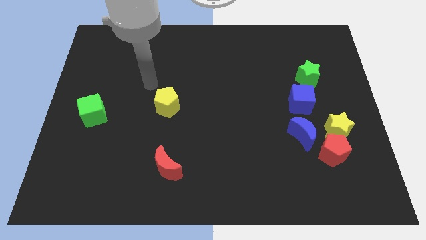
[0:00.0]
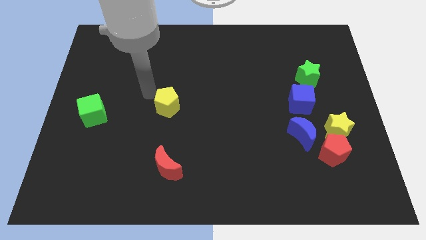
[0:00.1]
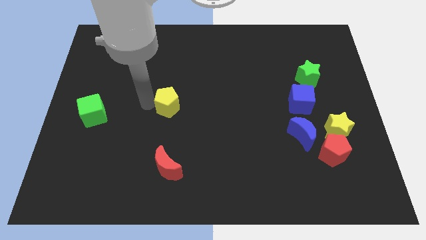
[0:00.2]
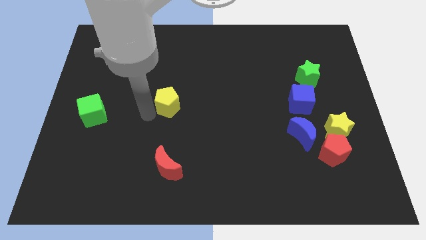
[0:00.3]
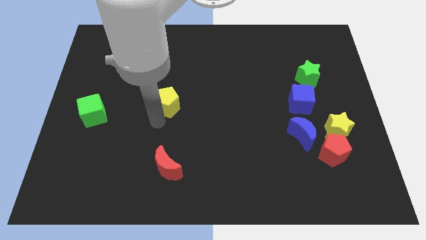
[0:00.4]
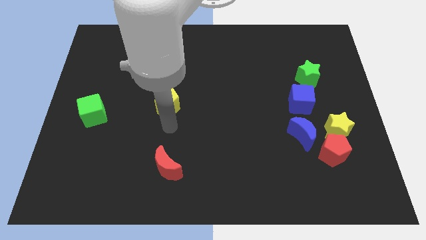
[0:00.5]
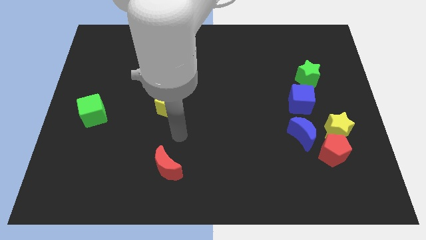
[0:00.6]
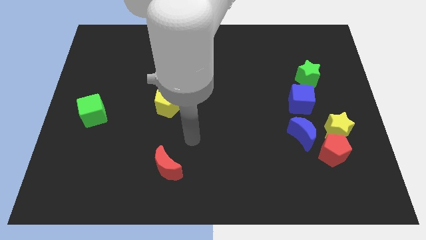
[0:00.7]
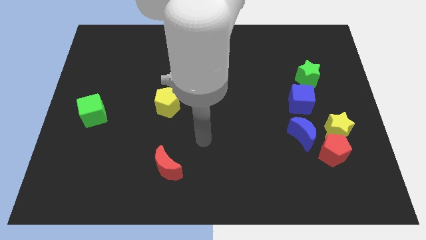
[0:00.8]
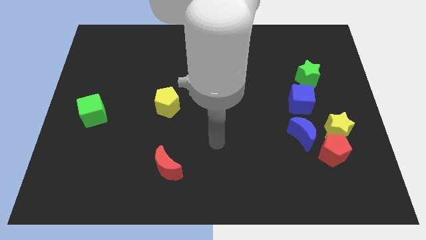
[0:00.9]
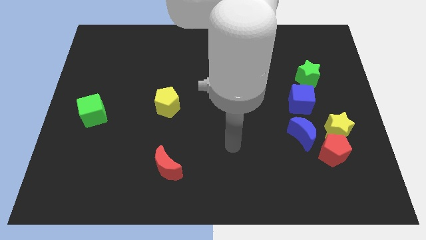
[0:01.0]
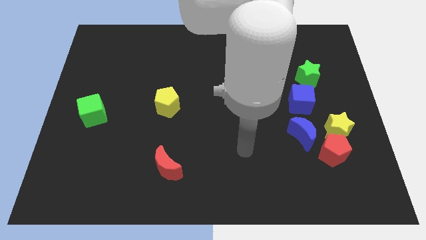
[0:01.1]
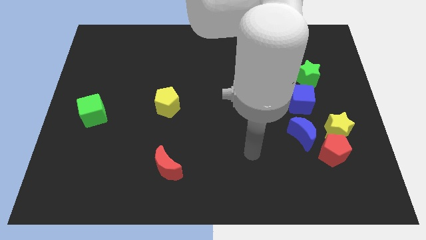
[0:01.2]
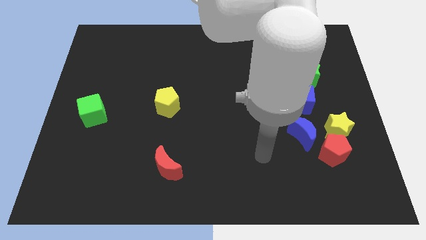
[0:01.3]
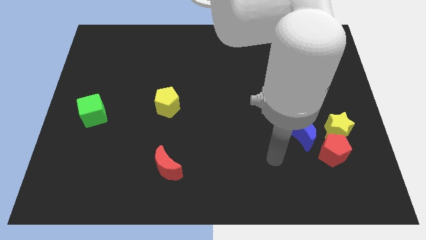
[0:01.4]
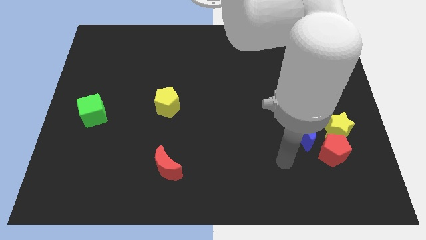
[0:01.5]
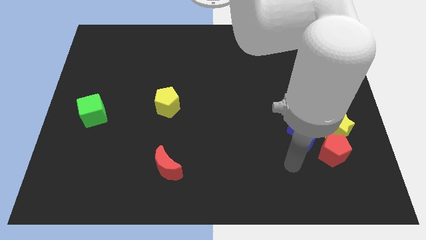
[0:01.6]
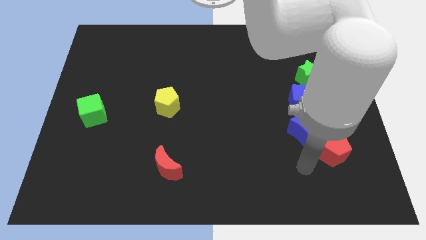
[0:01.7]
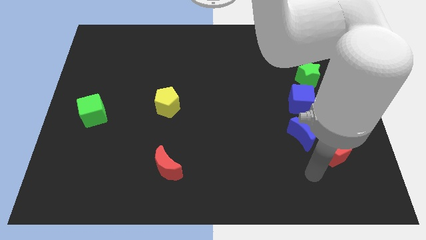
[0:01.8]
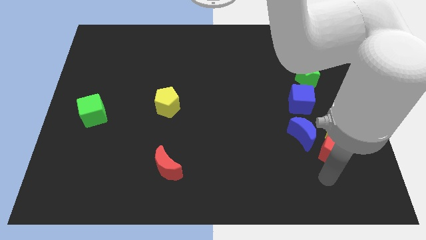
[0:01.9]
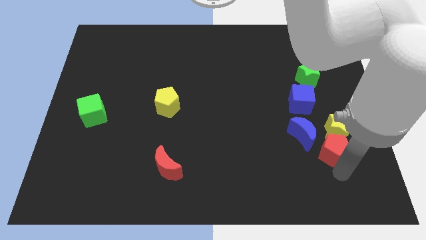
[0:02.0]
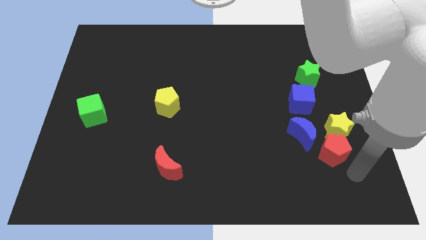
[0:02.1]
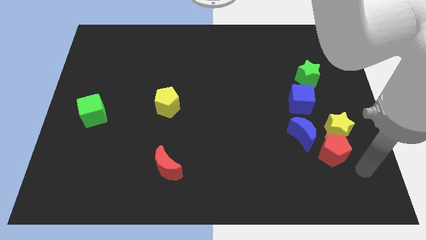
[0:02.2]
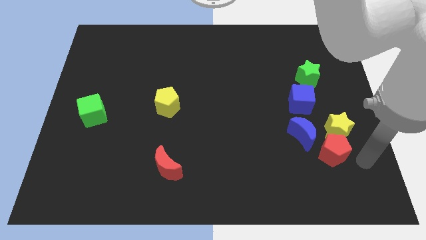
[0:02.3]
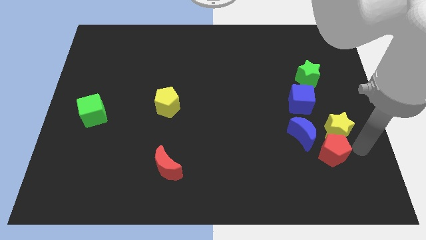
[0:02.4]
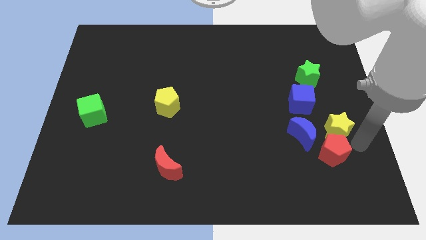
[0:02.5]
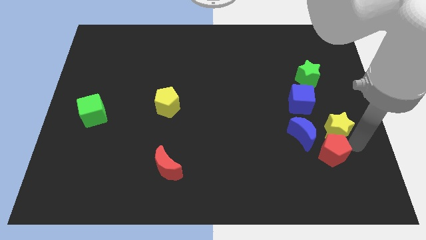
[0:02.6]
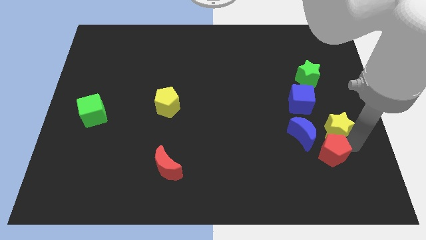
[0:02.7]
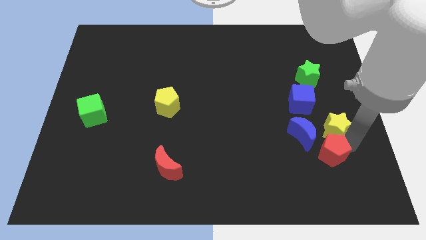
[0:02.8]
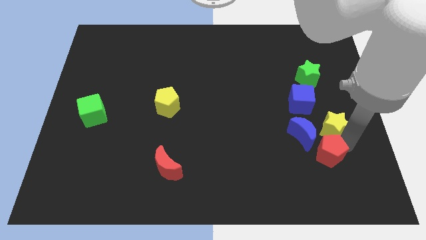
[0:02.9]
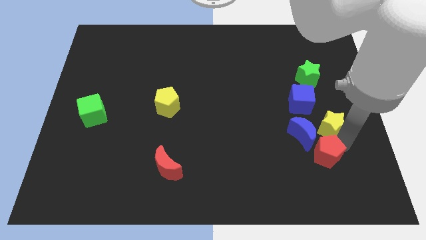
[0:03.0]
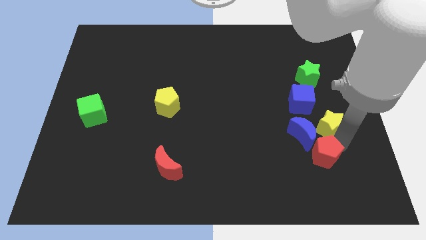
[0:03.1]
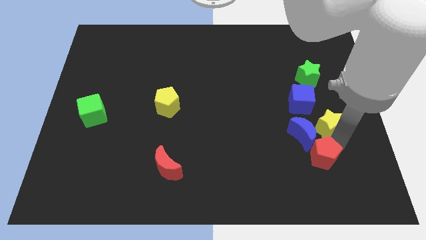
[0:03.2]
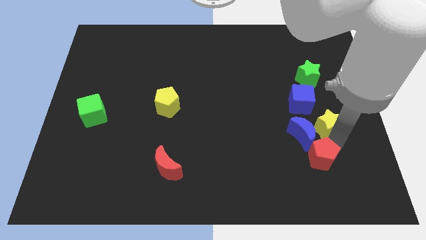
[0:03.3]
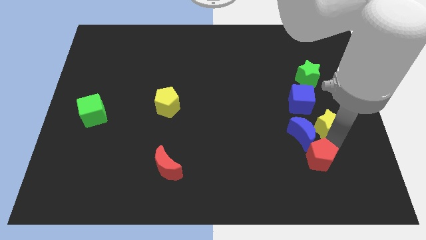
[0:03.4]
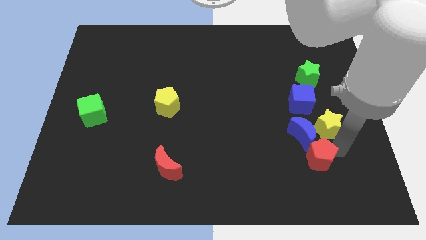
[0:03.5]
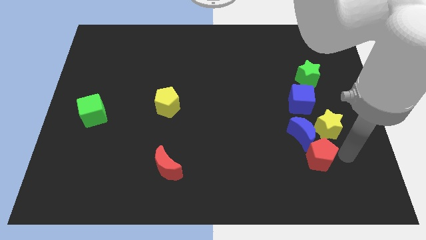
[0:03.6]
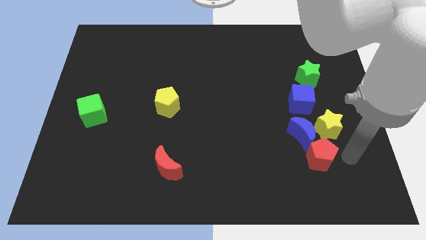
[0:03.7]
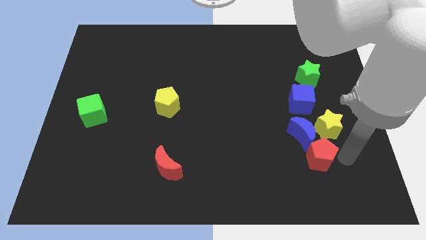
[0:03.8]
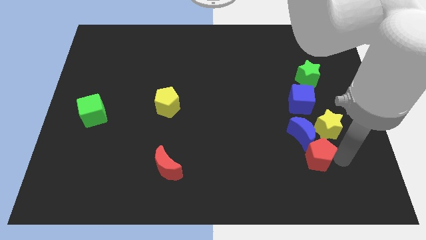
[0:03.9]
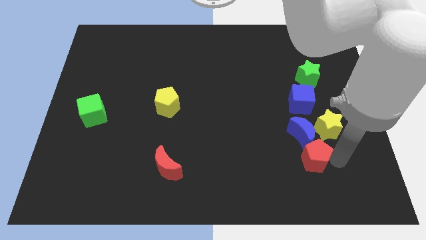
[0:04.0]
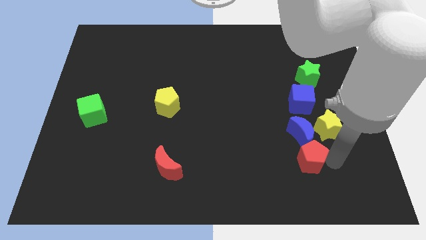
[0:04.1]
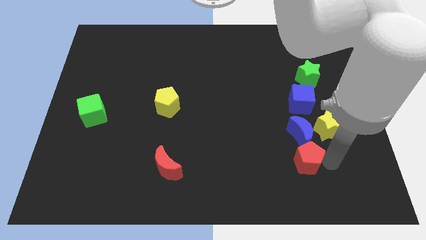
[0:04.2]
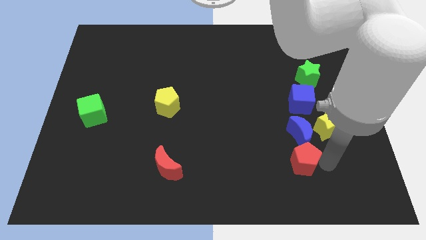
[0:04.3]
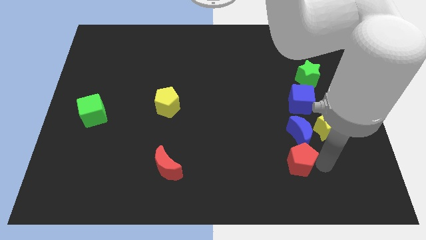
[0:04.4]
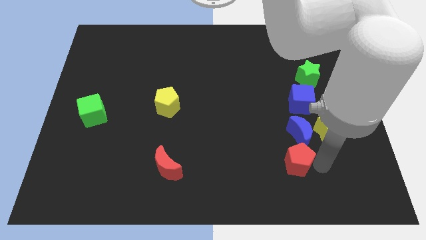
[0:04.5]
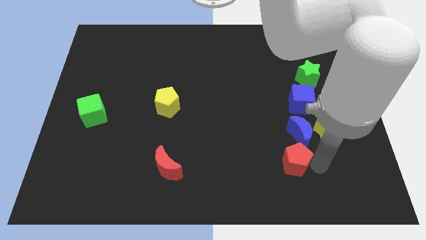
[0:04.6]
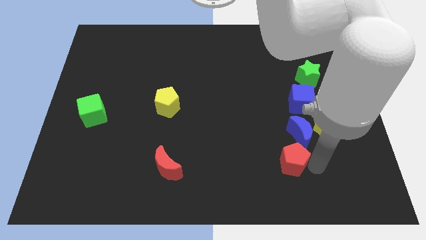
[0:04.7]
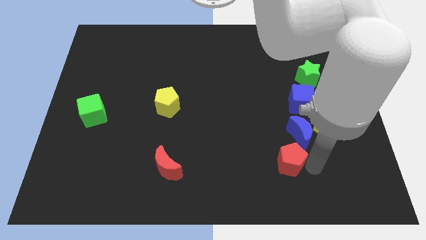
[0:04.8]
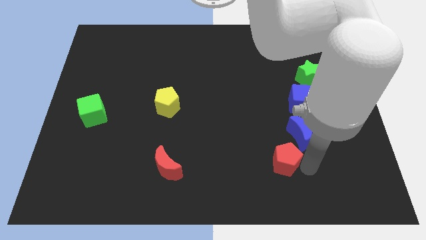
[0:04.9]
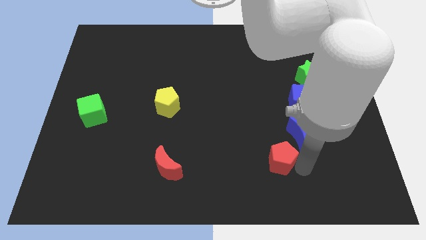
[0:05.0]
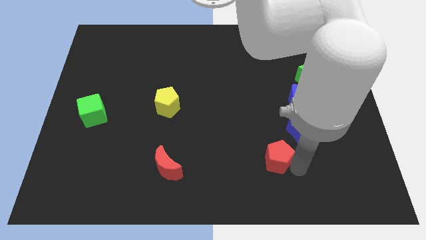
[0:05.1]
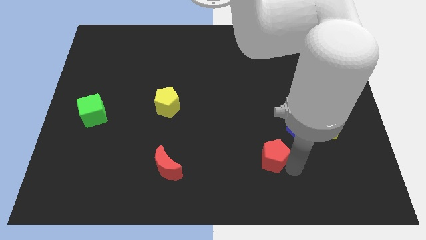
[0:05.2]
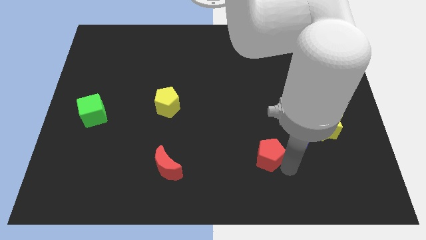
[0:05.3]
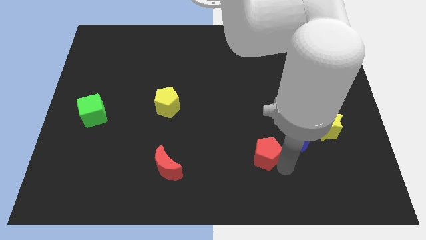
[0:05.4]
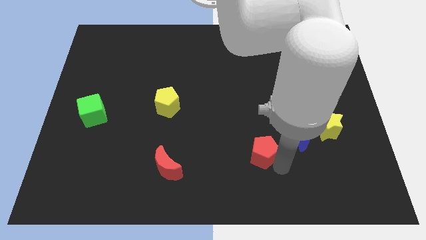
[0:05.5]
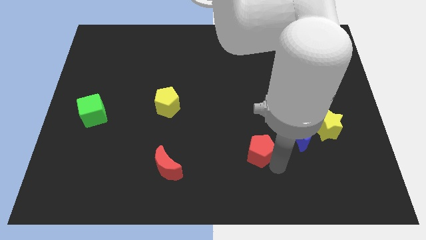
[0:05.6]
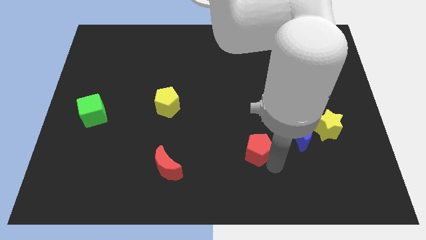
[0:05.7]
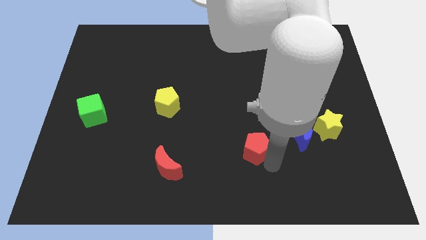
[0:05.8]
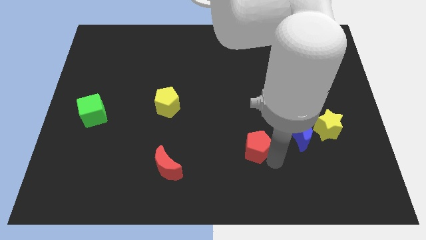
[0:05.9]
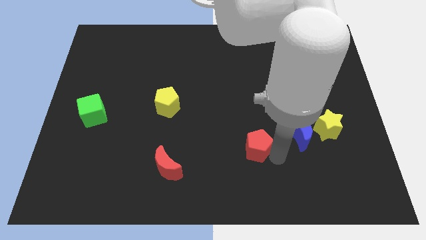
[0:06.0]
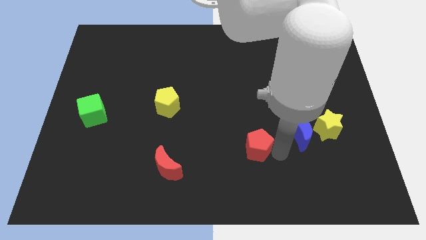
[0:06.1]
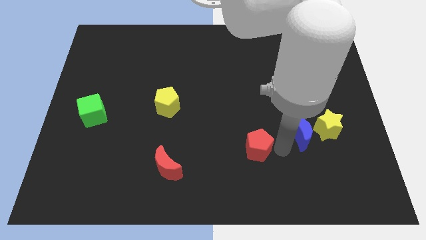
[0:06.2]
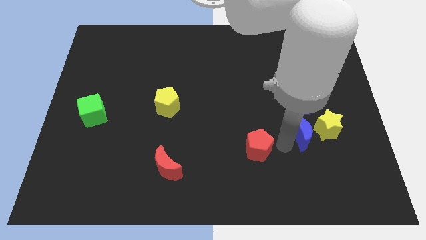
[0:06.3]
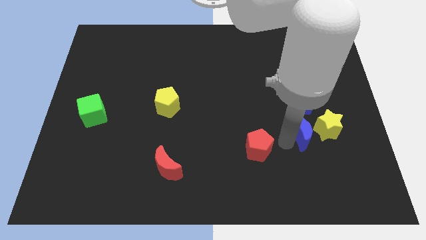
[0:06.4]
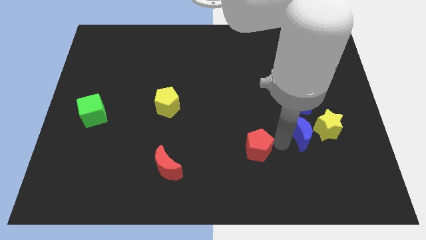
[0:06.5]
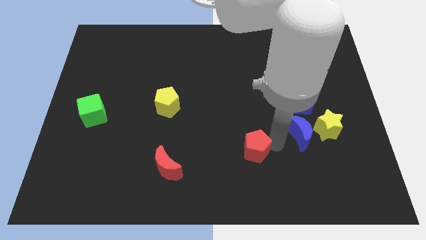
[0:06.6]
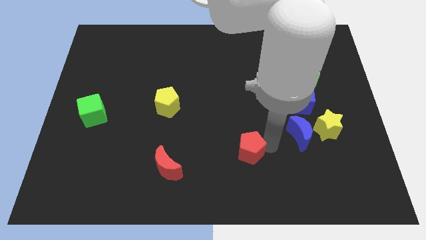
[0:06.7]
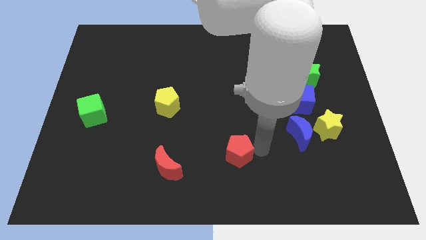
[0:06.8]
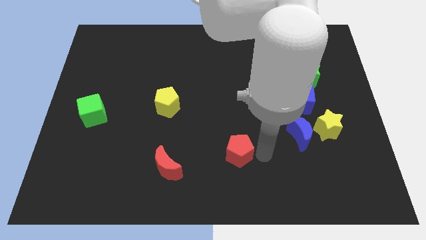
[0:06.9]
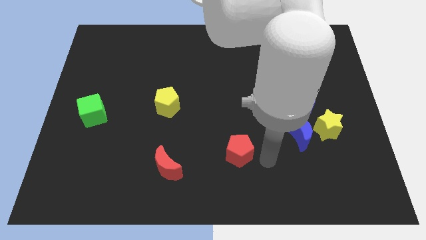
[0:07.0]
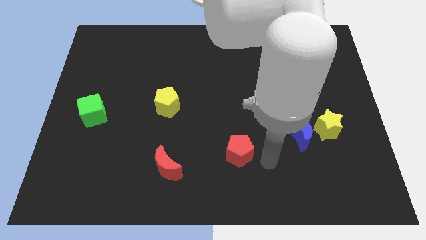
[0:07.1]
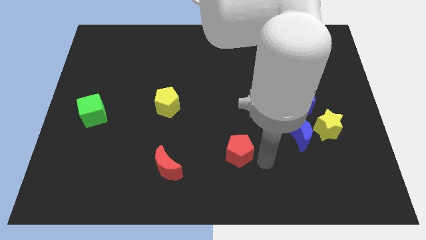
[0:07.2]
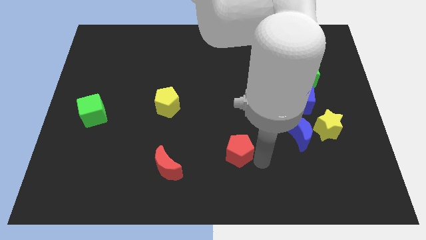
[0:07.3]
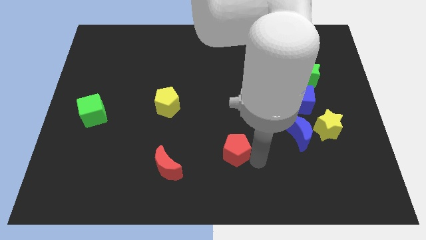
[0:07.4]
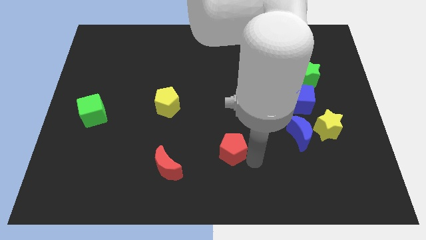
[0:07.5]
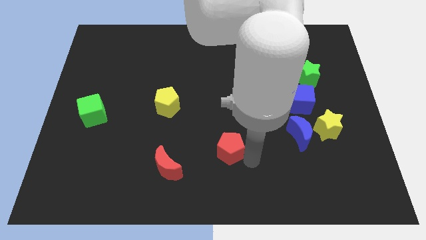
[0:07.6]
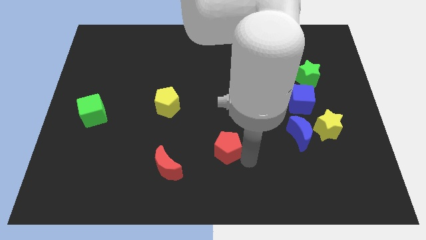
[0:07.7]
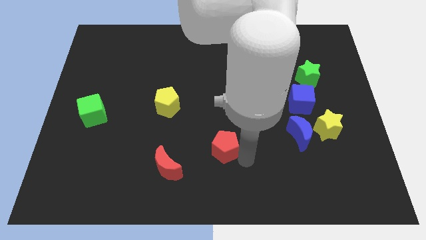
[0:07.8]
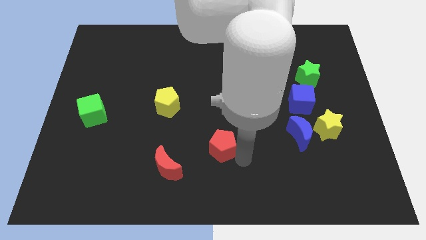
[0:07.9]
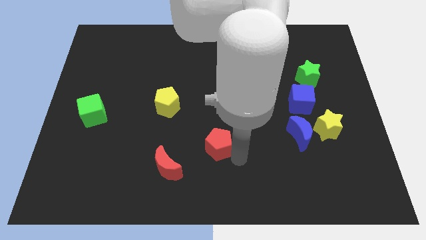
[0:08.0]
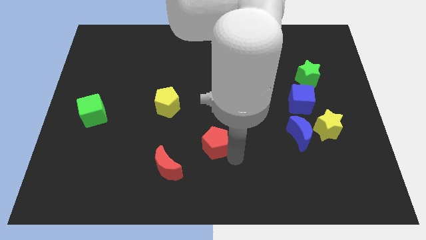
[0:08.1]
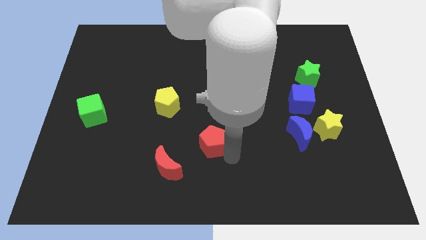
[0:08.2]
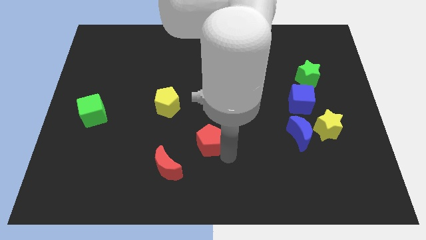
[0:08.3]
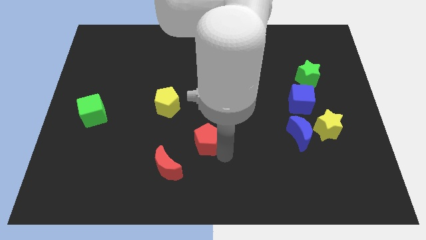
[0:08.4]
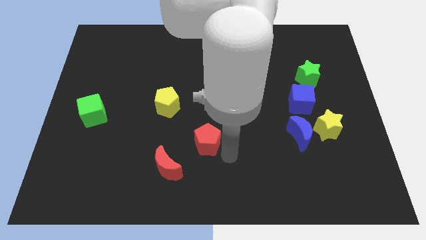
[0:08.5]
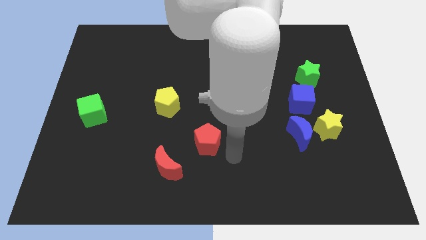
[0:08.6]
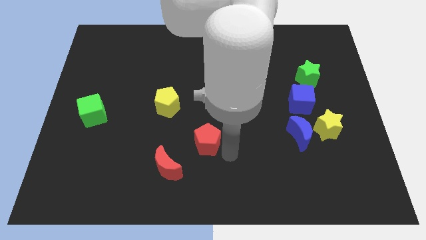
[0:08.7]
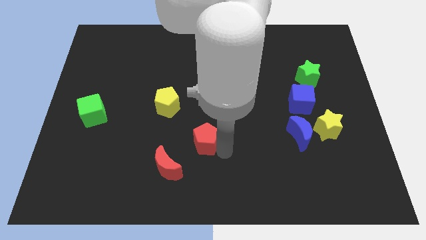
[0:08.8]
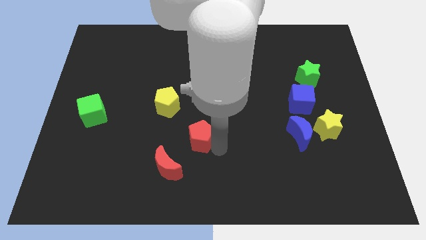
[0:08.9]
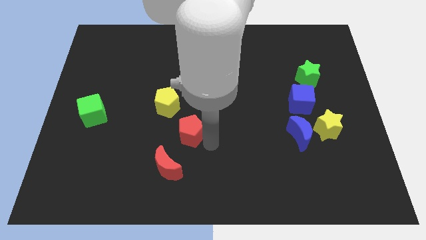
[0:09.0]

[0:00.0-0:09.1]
put the red pentagon above the red moon
